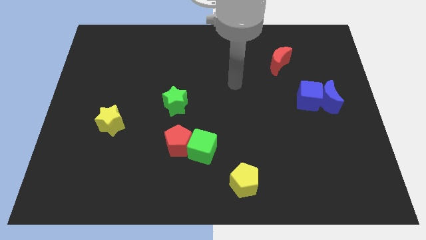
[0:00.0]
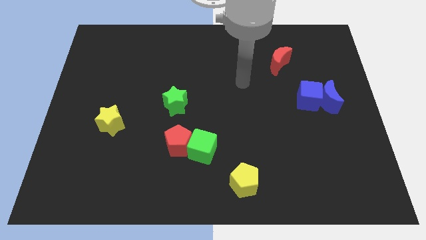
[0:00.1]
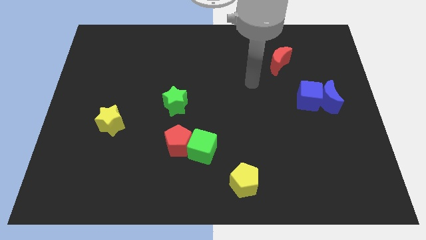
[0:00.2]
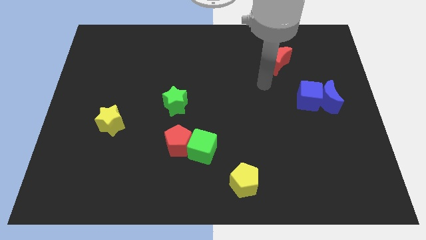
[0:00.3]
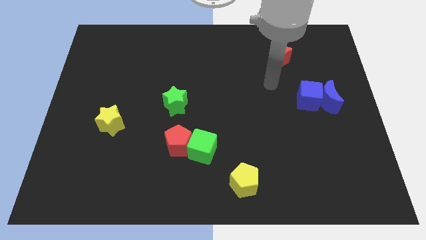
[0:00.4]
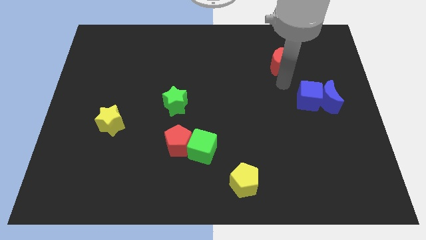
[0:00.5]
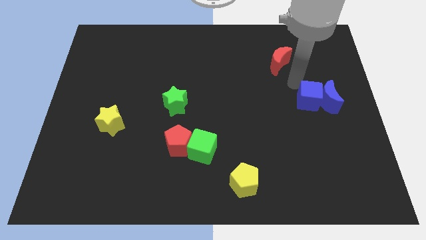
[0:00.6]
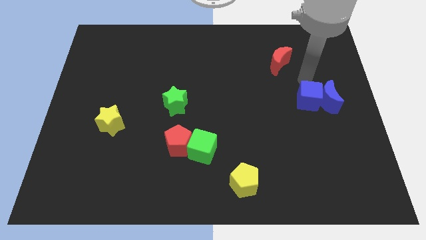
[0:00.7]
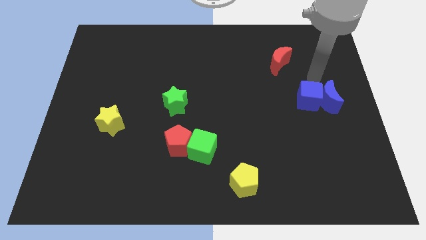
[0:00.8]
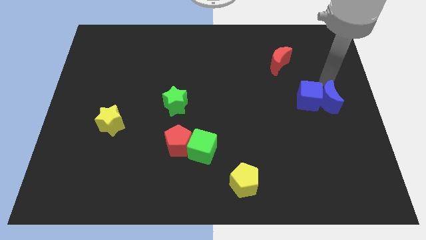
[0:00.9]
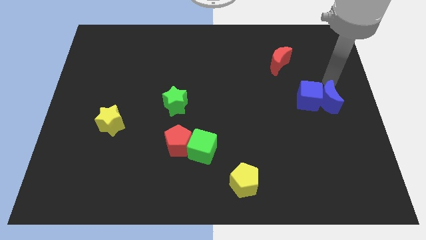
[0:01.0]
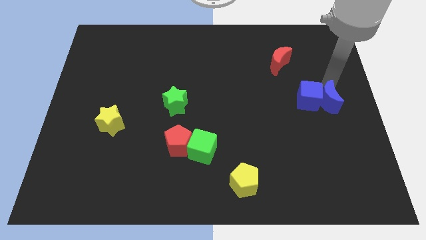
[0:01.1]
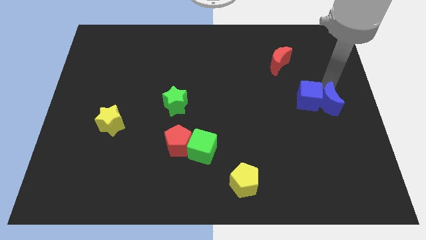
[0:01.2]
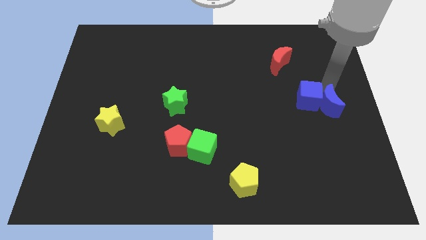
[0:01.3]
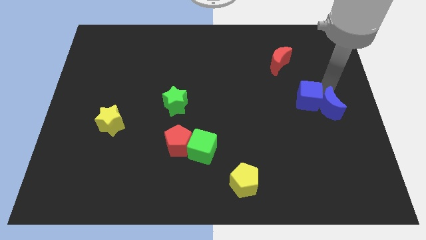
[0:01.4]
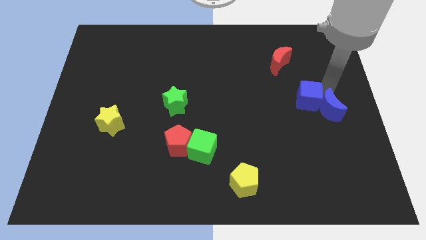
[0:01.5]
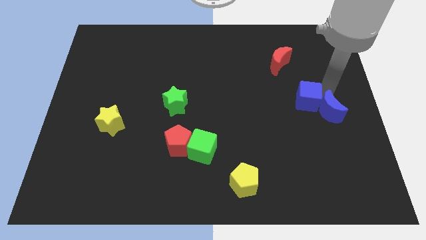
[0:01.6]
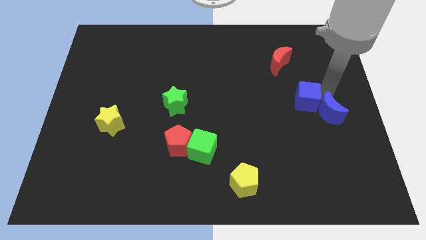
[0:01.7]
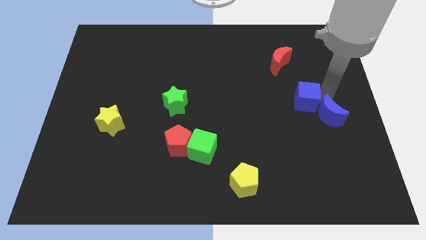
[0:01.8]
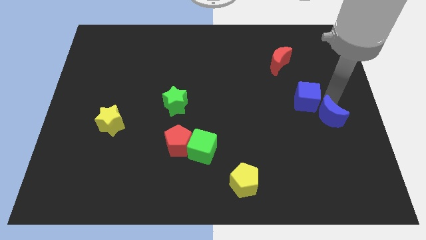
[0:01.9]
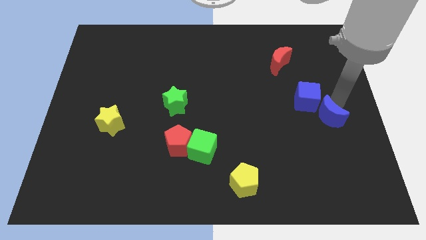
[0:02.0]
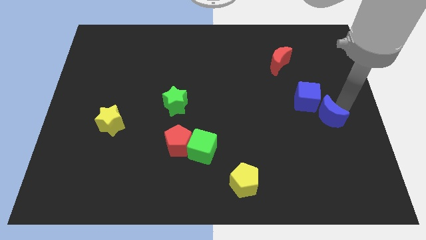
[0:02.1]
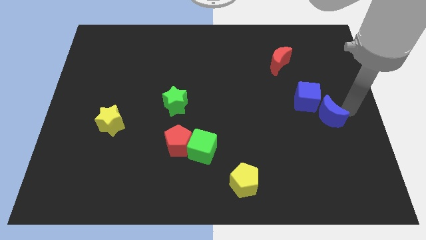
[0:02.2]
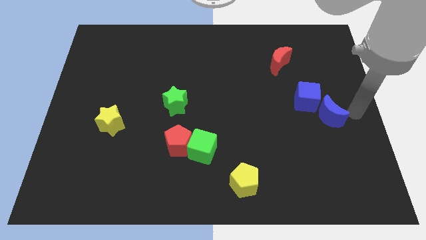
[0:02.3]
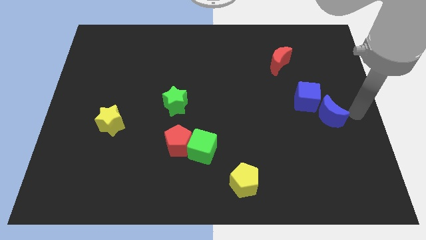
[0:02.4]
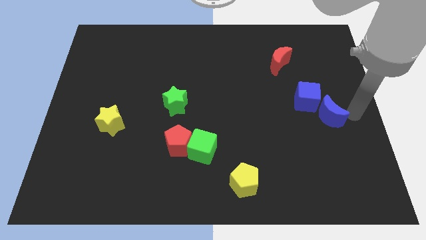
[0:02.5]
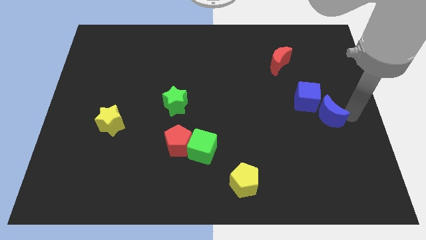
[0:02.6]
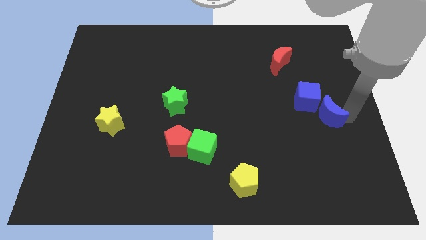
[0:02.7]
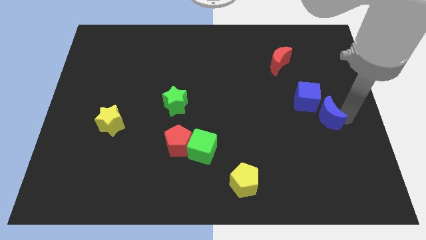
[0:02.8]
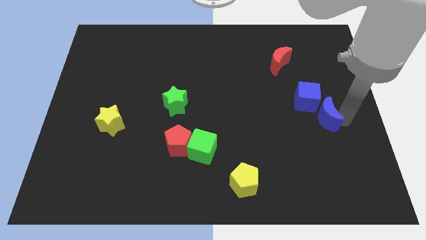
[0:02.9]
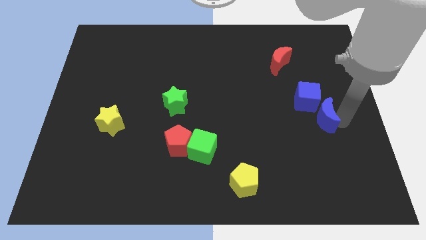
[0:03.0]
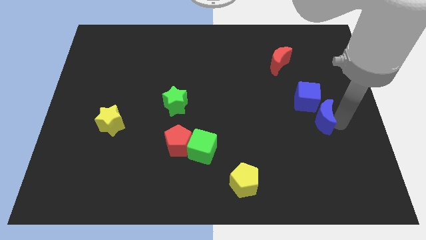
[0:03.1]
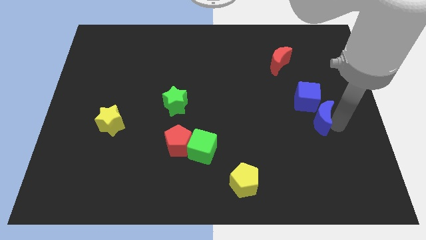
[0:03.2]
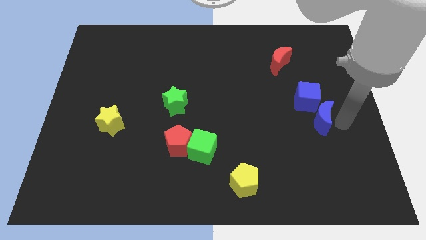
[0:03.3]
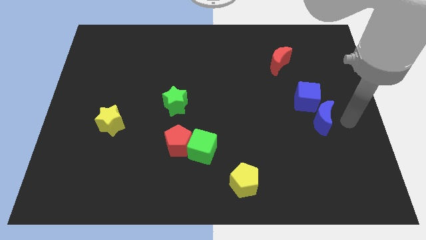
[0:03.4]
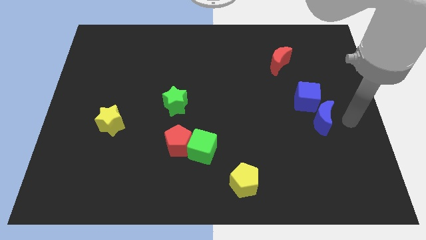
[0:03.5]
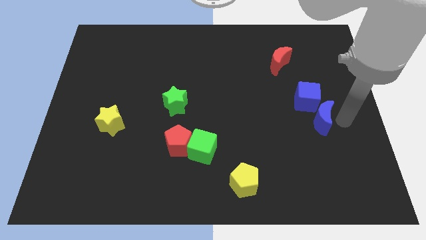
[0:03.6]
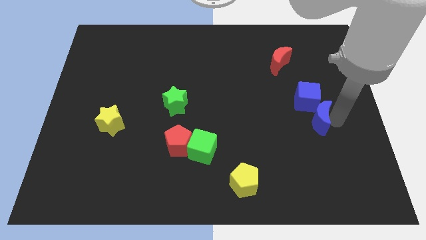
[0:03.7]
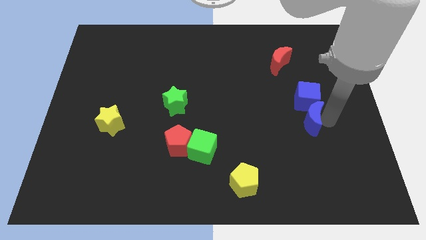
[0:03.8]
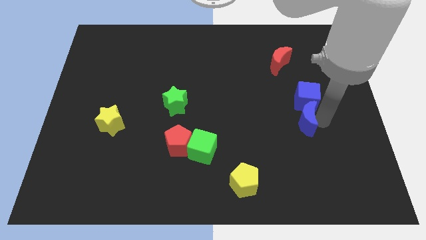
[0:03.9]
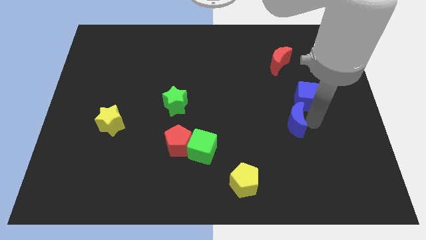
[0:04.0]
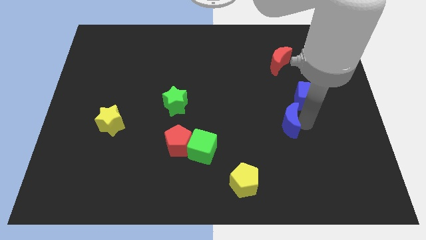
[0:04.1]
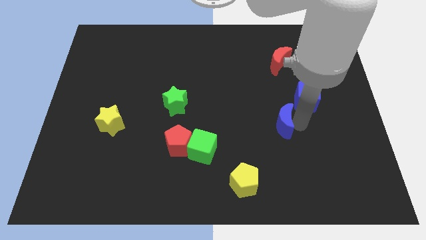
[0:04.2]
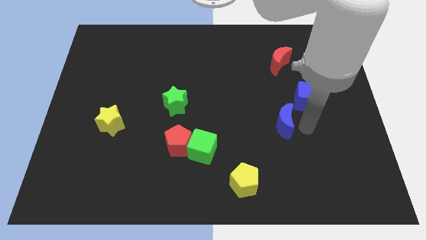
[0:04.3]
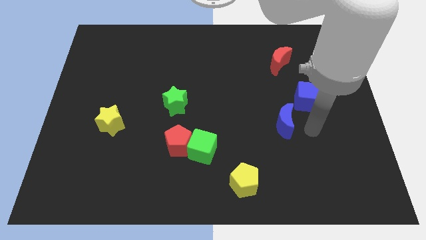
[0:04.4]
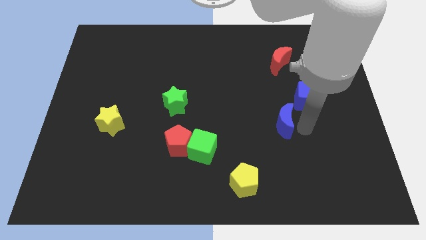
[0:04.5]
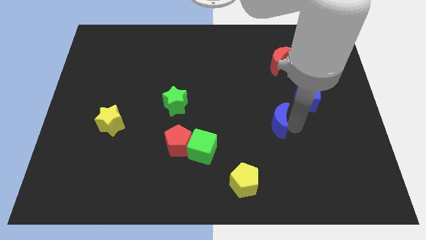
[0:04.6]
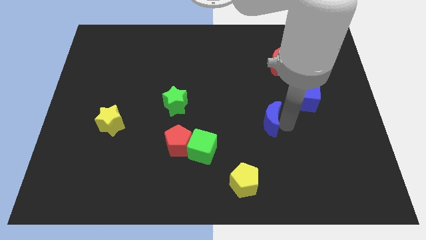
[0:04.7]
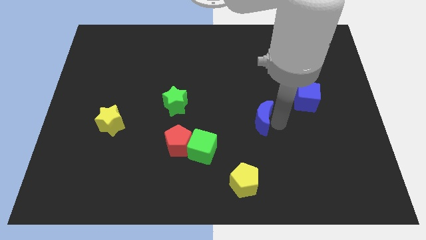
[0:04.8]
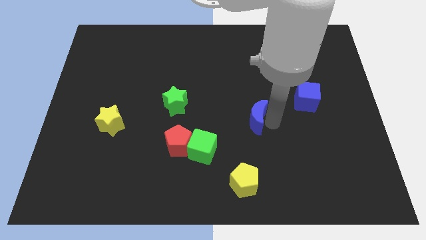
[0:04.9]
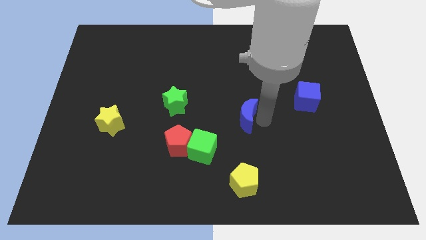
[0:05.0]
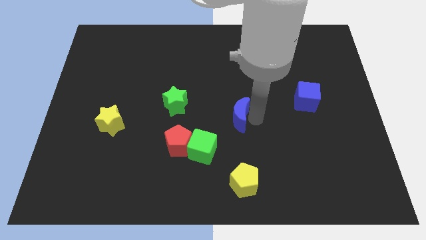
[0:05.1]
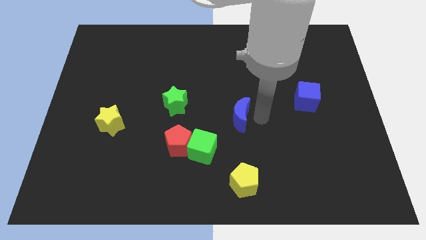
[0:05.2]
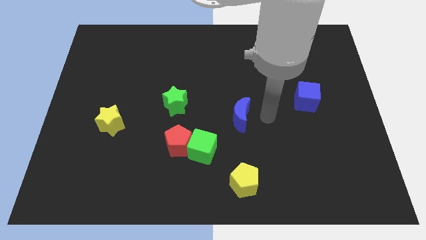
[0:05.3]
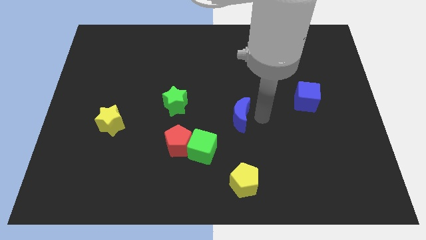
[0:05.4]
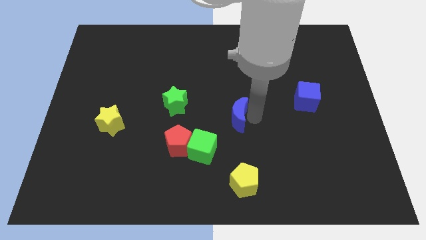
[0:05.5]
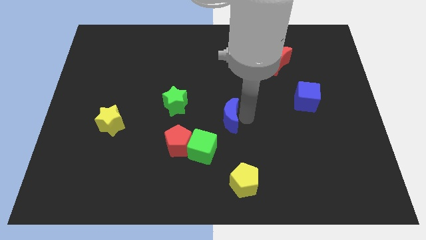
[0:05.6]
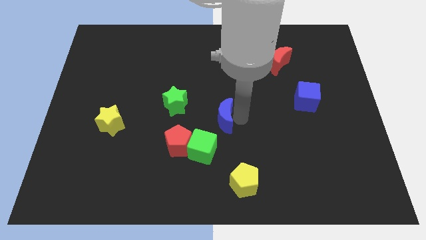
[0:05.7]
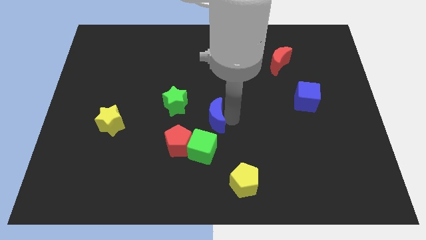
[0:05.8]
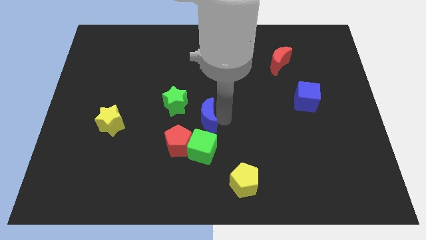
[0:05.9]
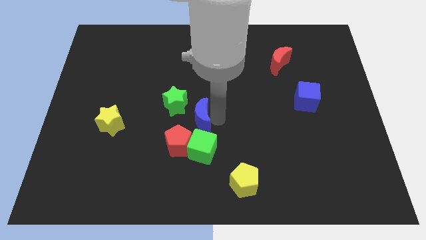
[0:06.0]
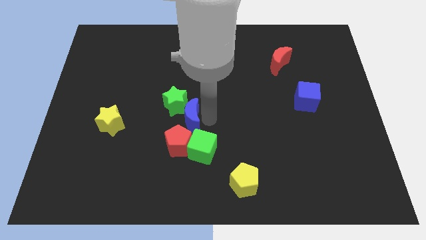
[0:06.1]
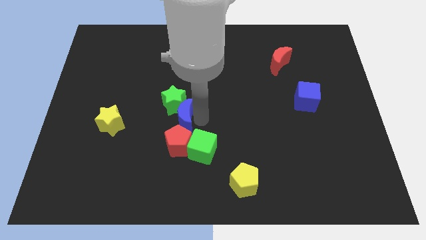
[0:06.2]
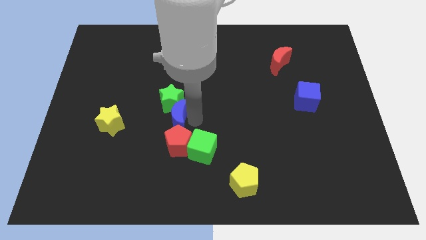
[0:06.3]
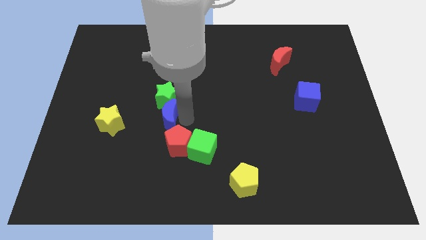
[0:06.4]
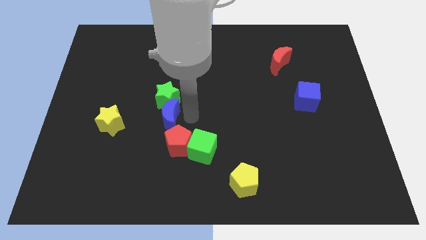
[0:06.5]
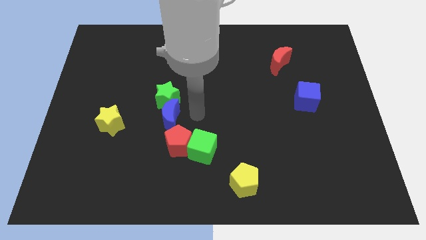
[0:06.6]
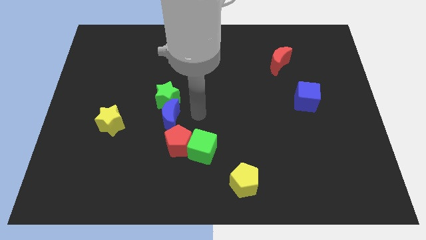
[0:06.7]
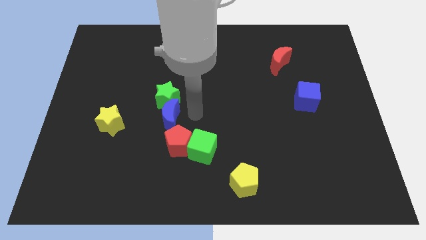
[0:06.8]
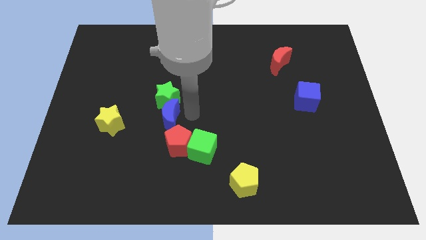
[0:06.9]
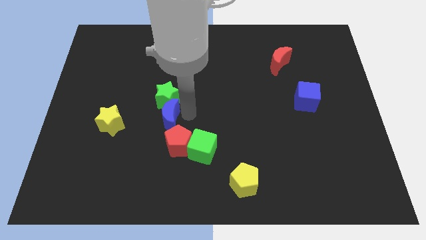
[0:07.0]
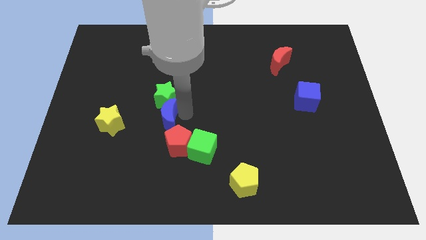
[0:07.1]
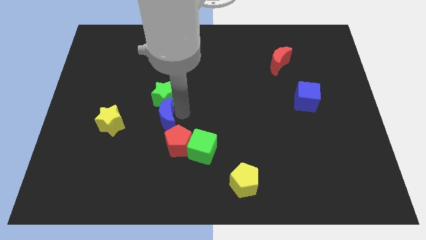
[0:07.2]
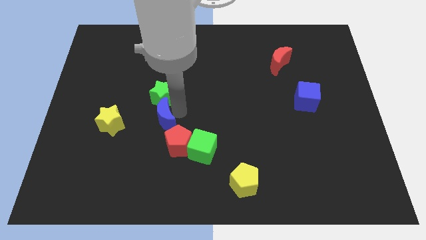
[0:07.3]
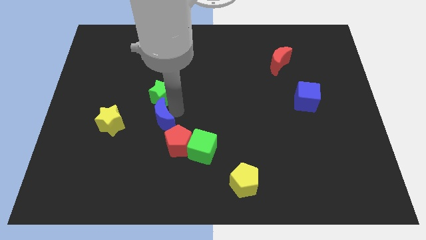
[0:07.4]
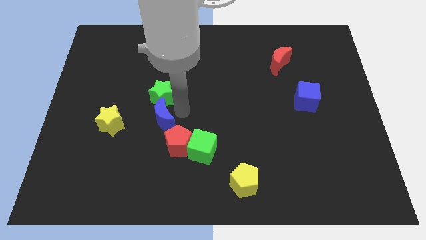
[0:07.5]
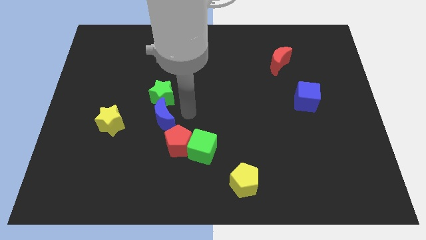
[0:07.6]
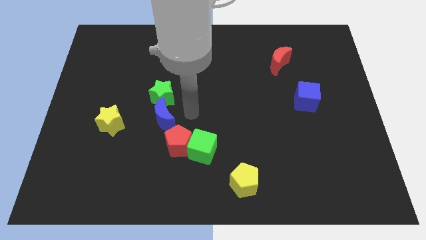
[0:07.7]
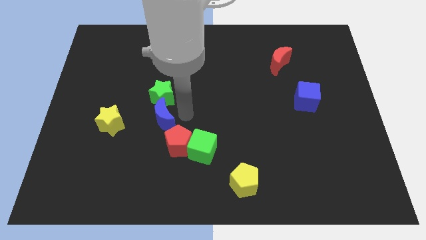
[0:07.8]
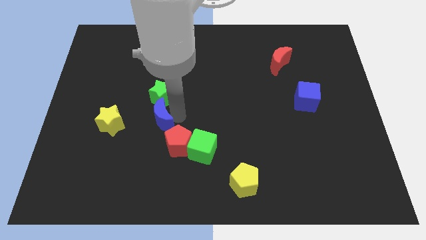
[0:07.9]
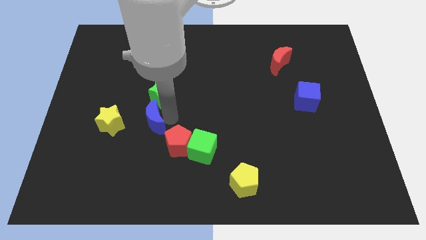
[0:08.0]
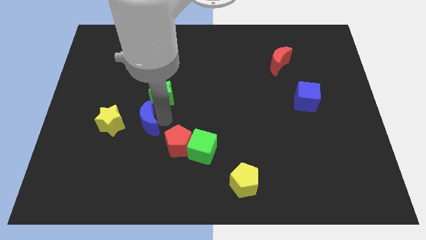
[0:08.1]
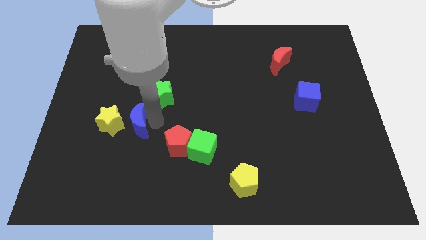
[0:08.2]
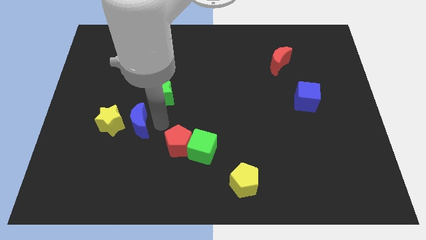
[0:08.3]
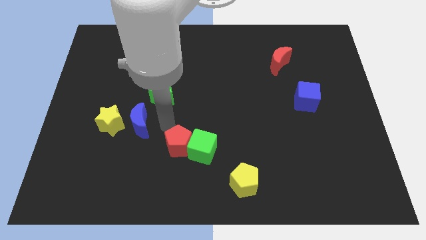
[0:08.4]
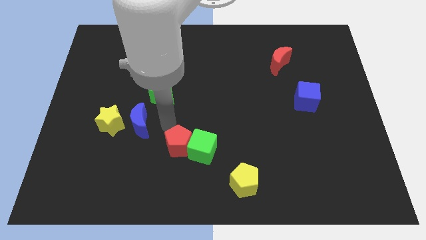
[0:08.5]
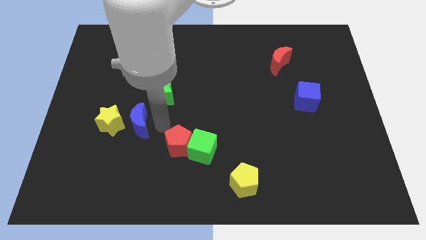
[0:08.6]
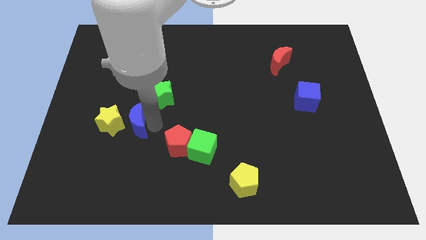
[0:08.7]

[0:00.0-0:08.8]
put the blue moon next to the yellow star

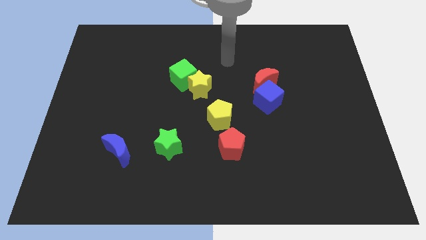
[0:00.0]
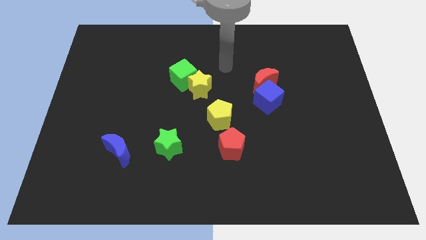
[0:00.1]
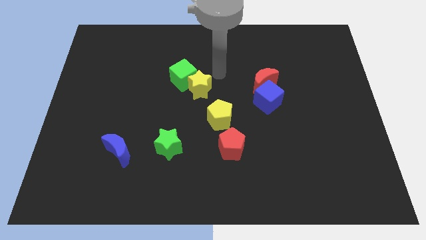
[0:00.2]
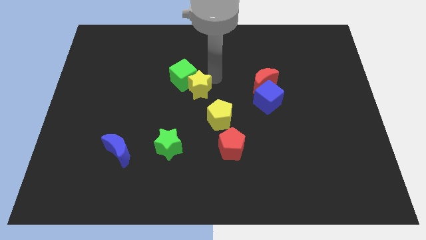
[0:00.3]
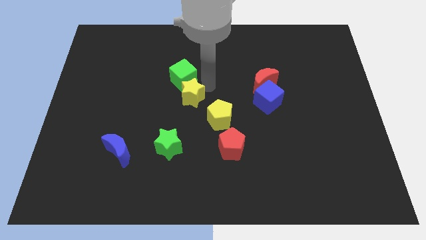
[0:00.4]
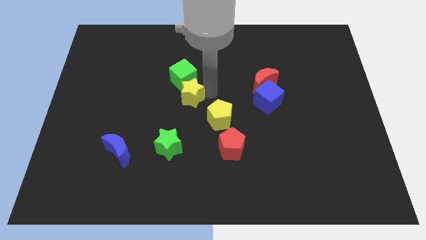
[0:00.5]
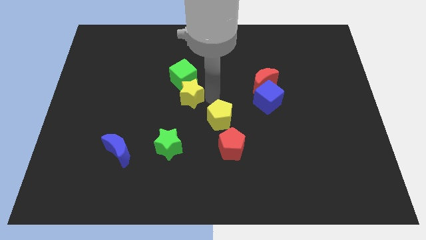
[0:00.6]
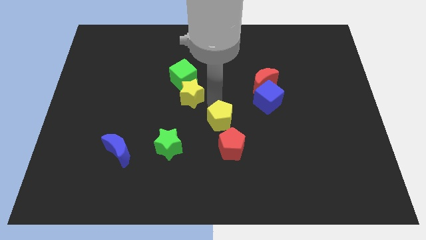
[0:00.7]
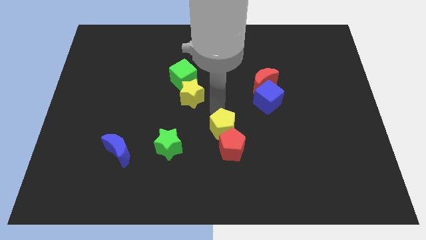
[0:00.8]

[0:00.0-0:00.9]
slide the yellow pentagon close to the red pentagon
